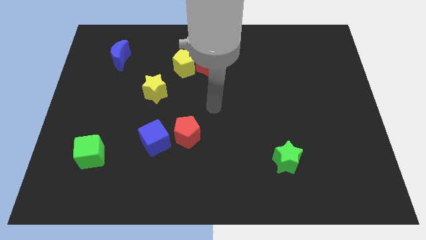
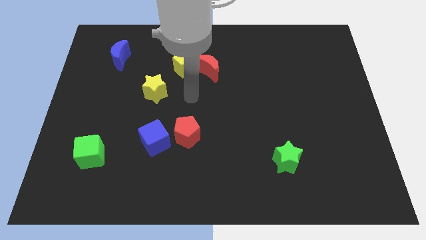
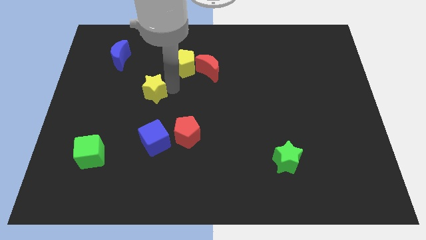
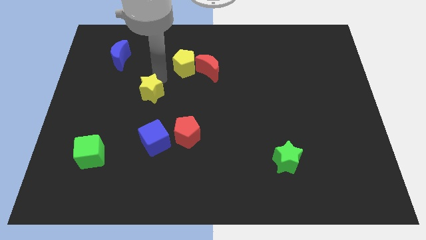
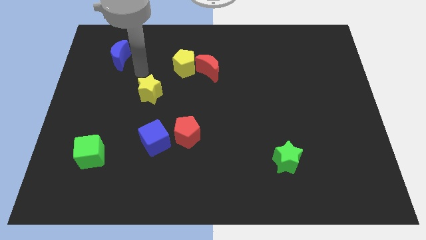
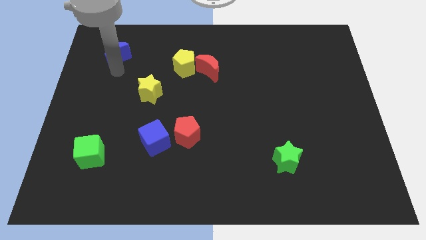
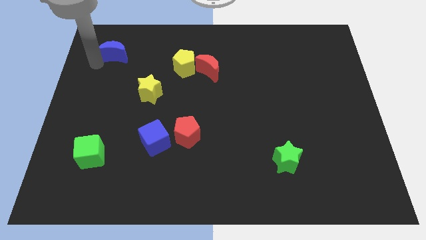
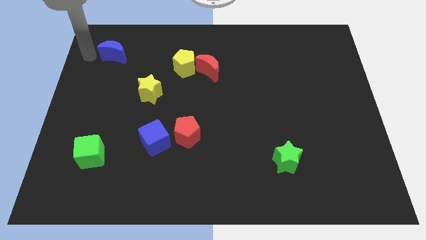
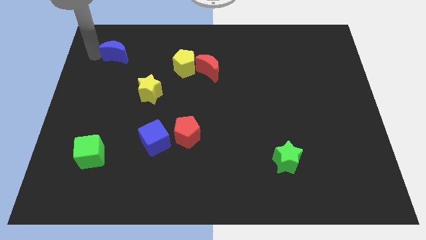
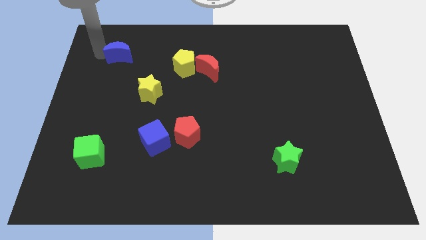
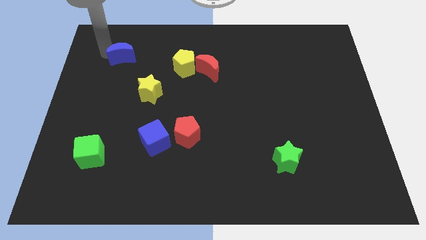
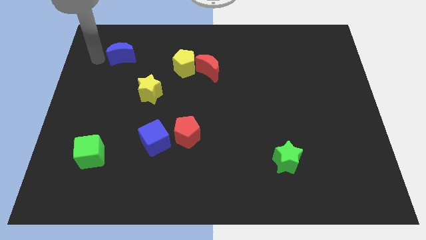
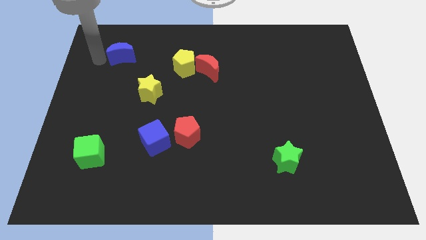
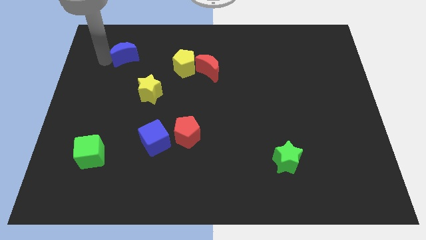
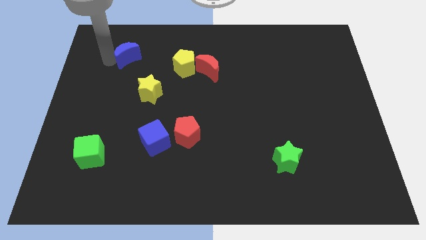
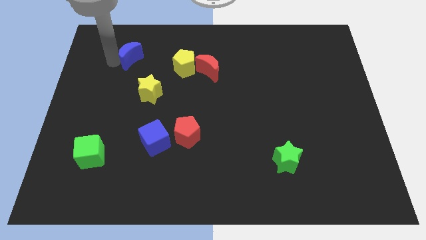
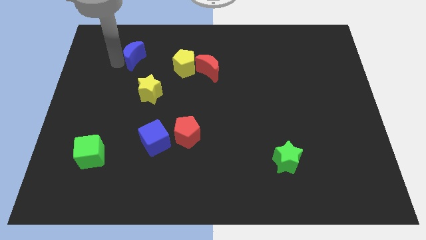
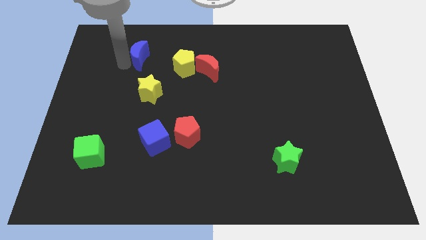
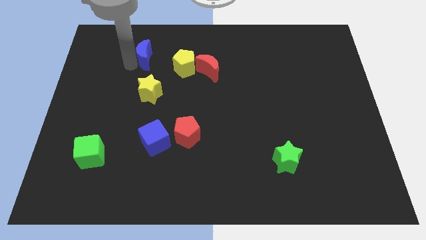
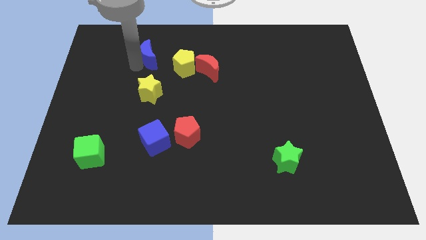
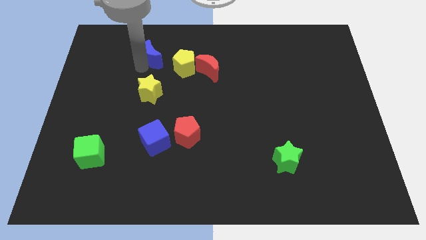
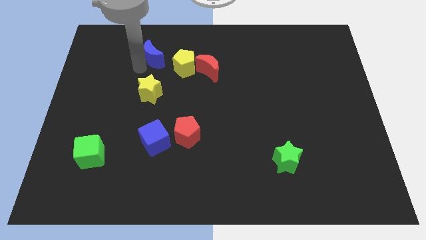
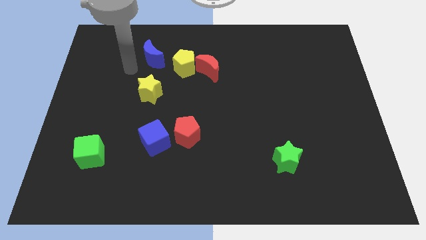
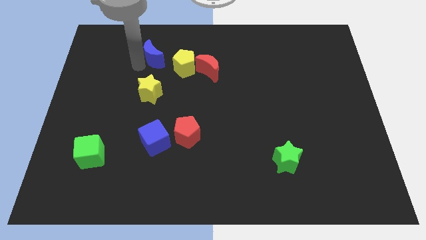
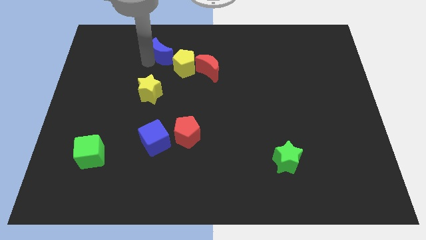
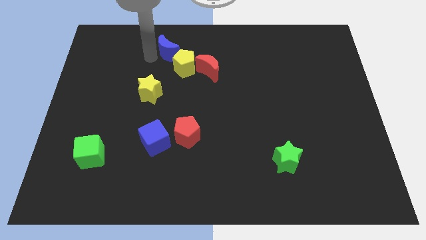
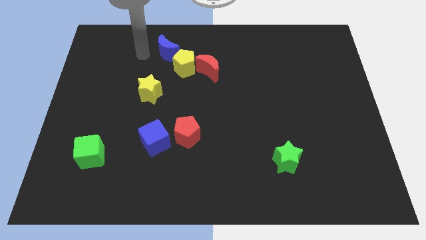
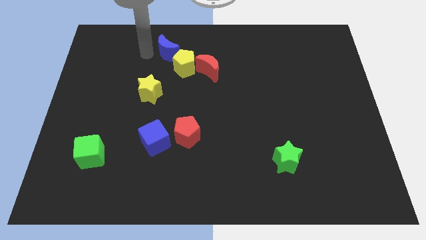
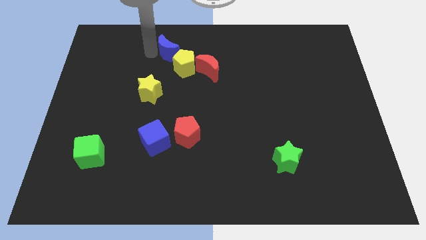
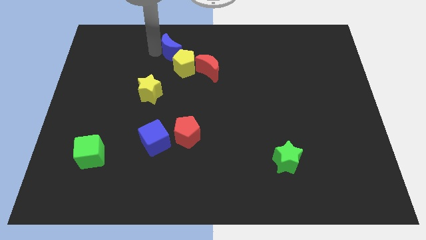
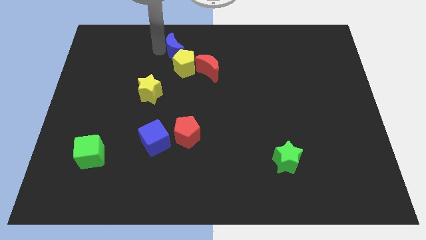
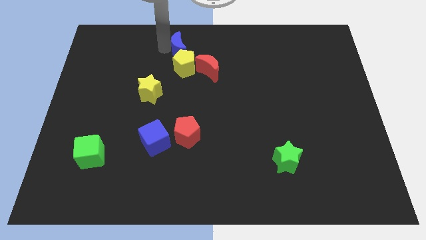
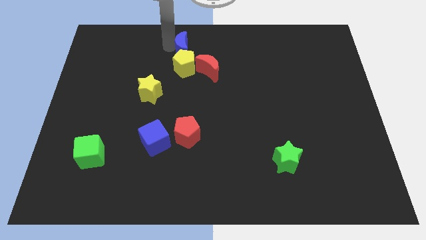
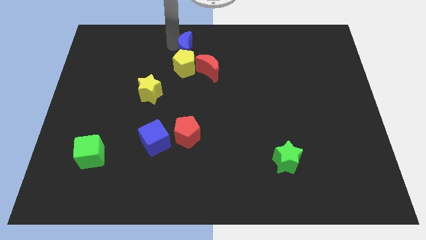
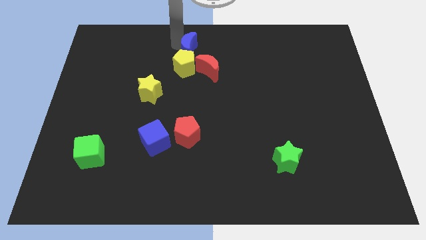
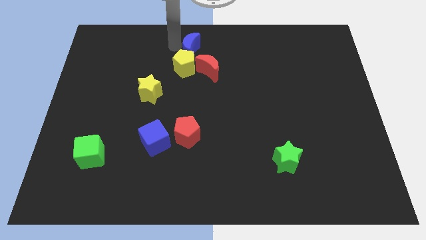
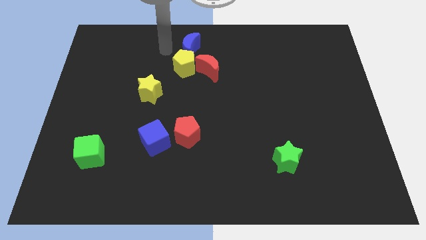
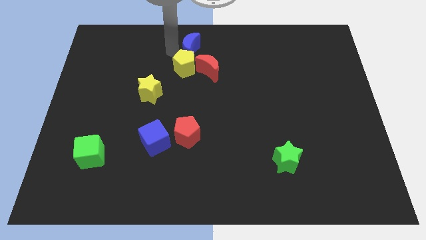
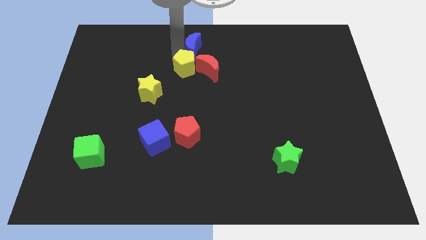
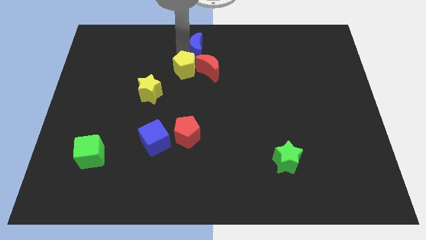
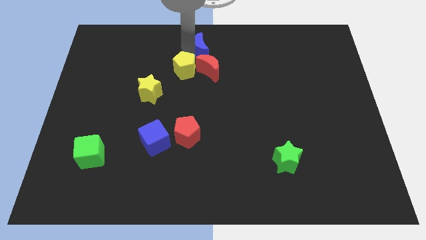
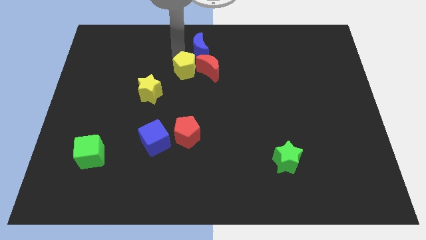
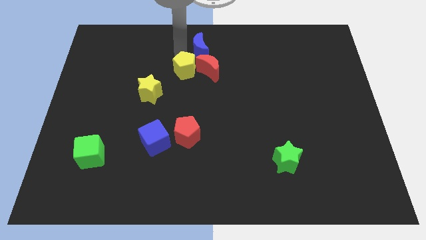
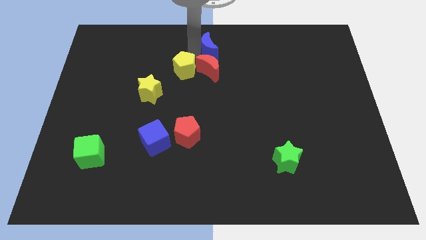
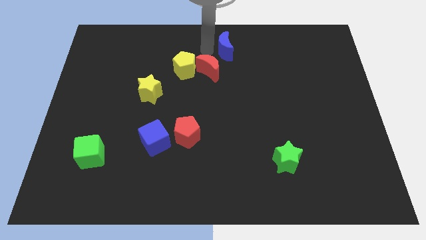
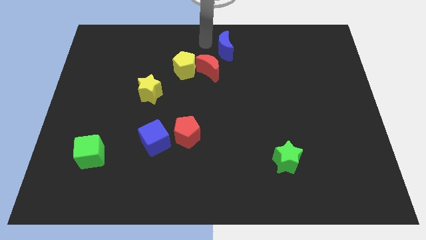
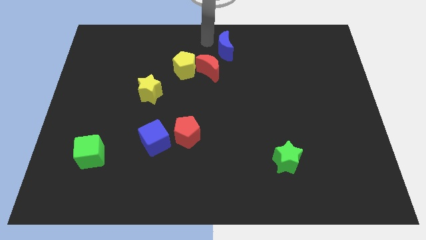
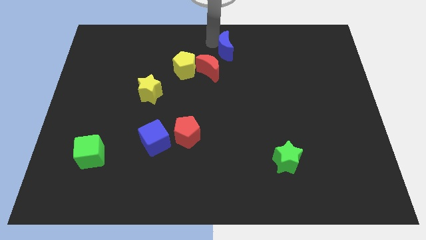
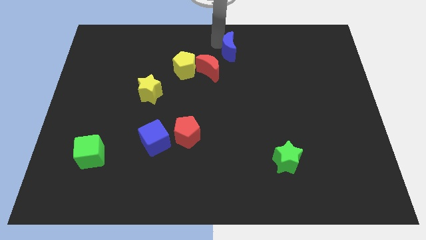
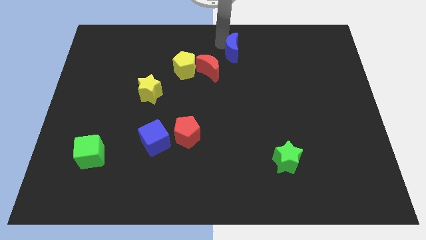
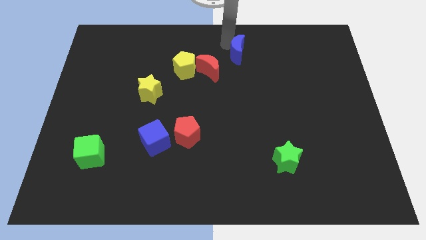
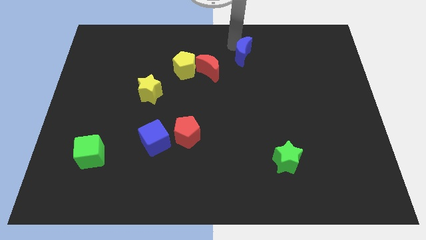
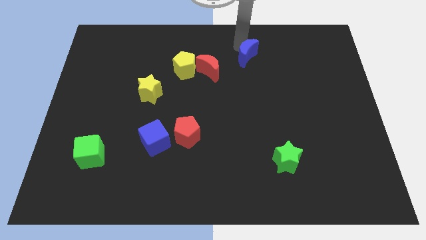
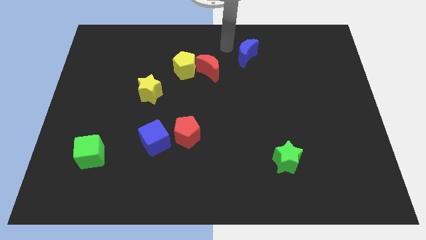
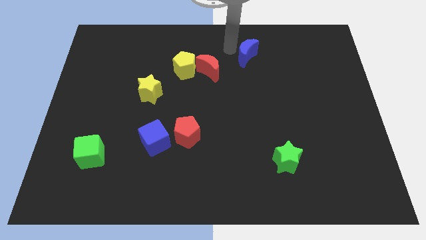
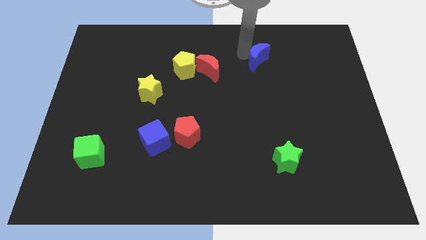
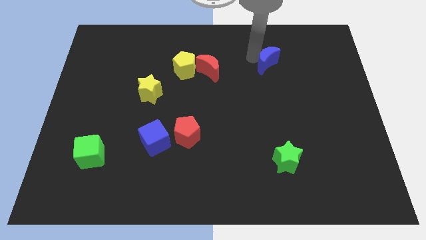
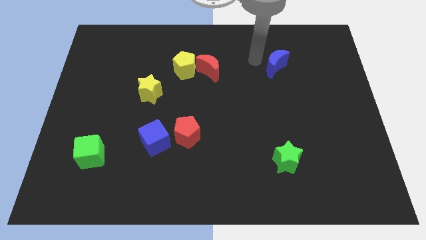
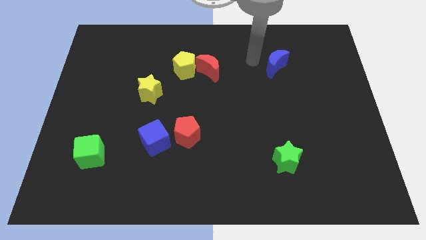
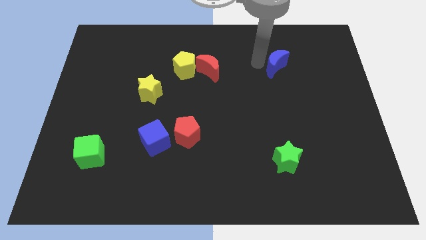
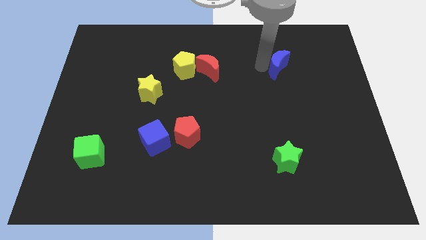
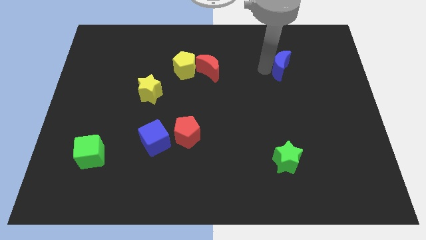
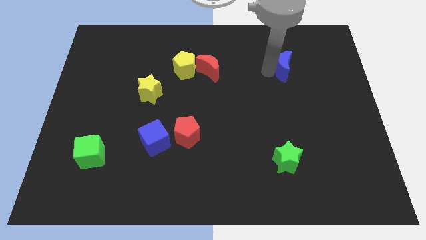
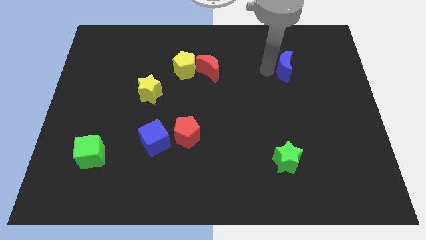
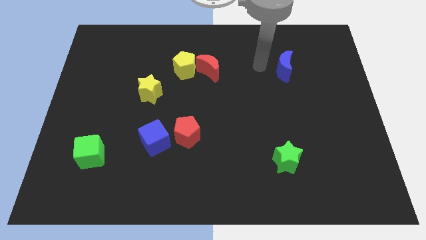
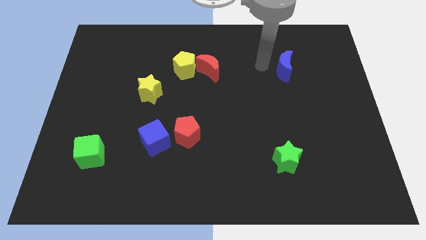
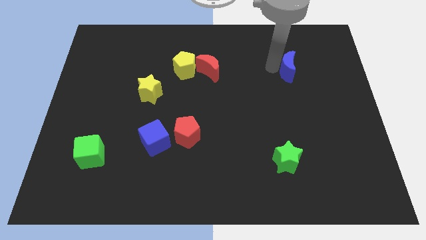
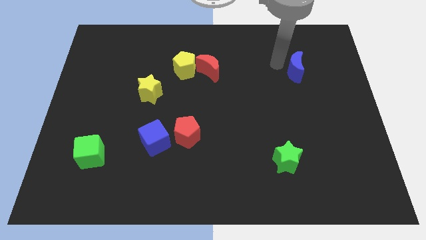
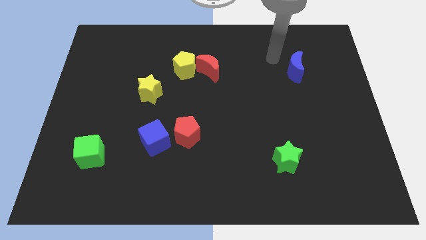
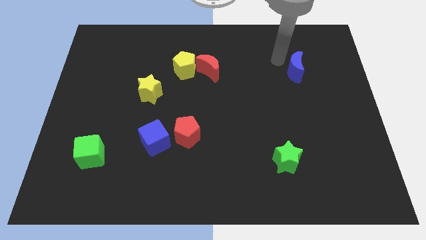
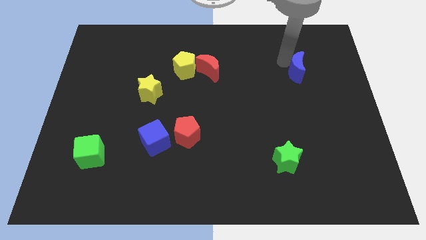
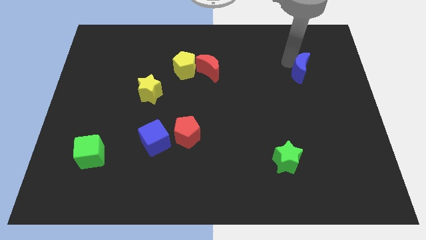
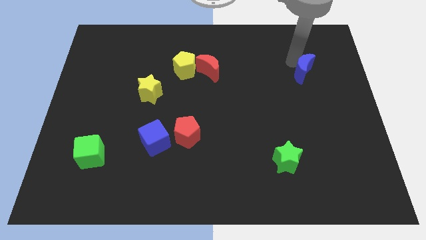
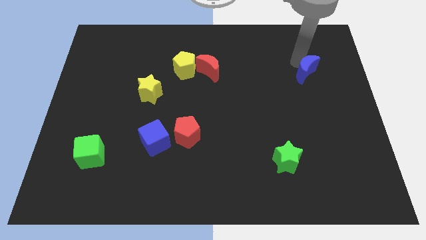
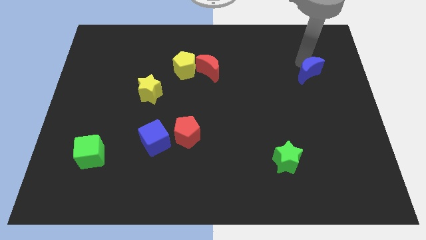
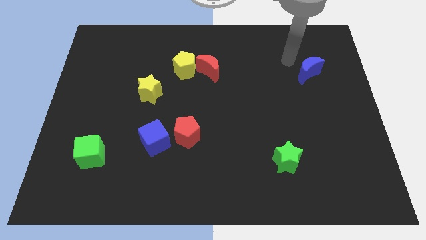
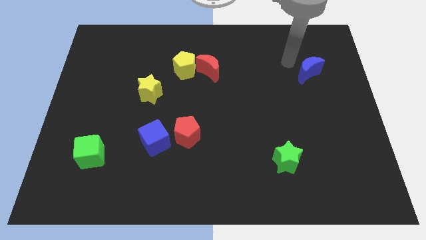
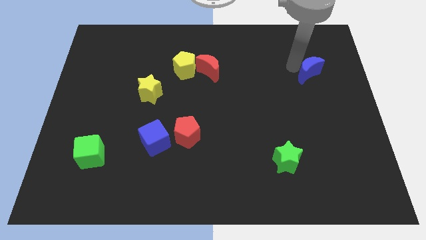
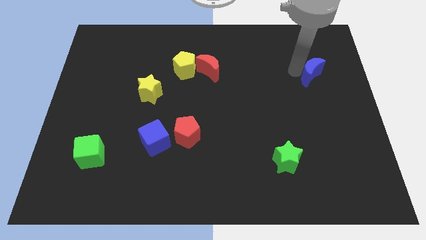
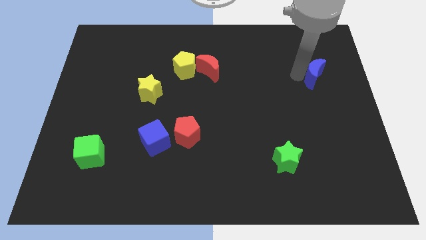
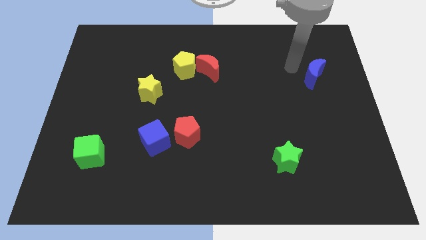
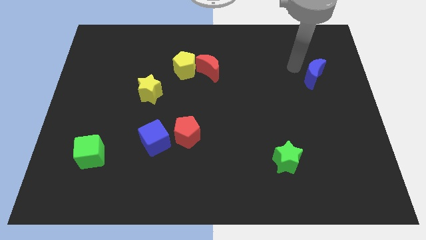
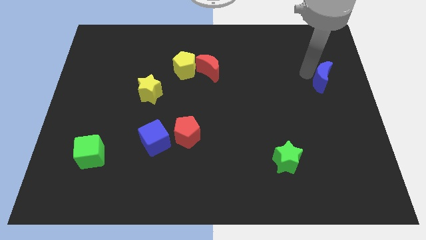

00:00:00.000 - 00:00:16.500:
push the blue moon to the right side of the board
